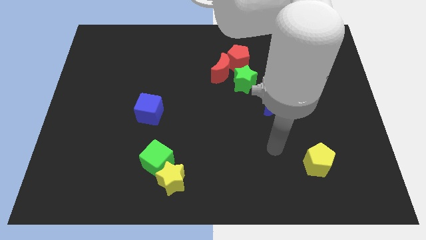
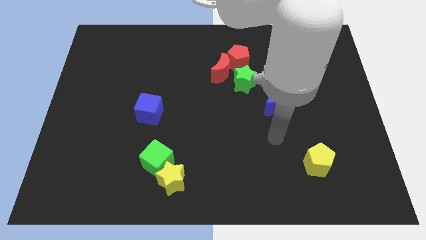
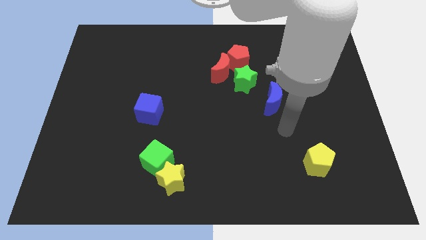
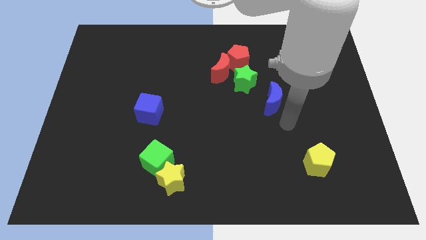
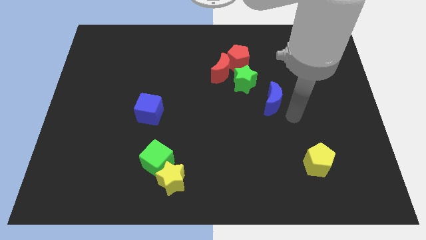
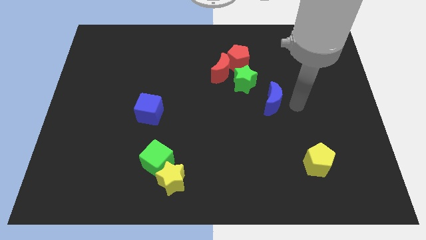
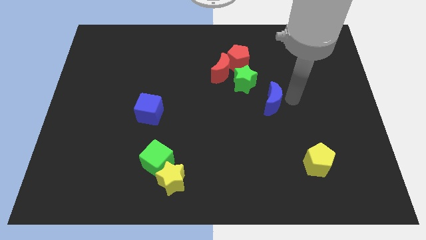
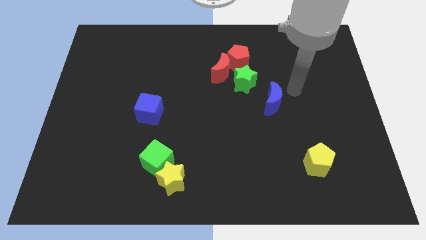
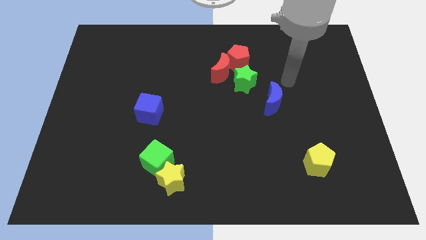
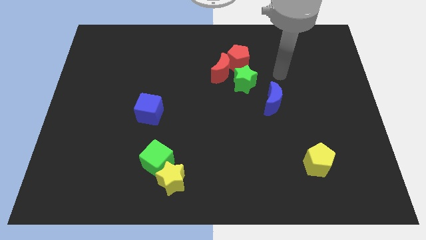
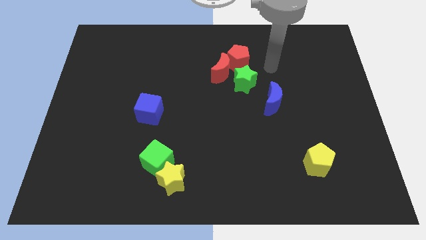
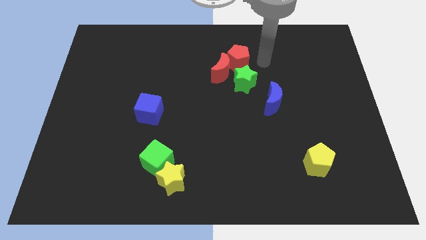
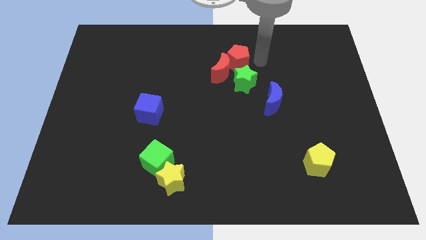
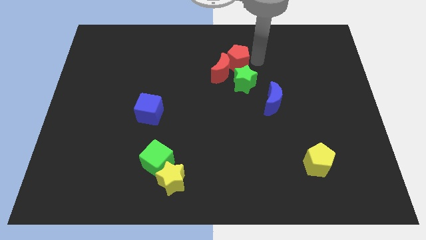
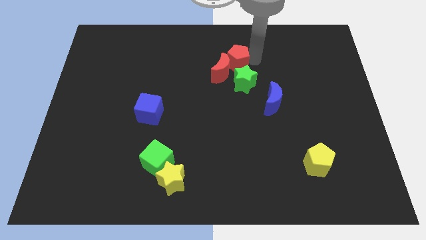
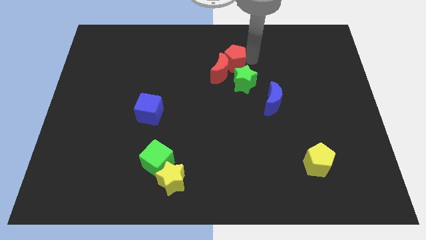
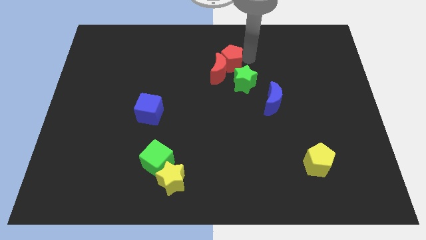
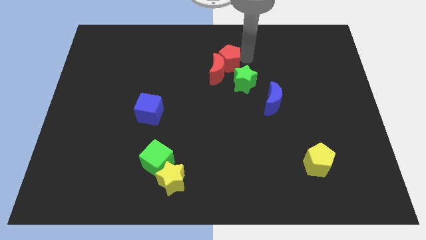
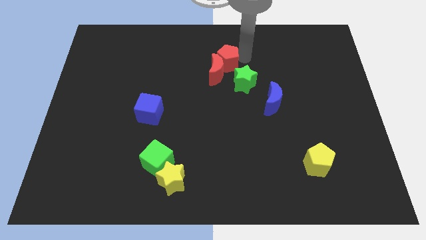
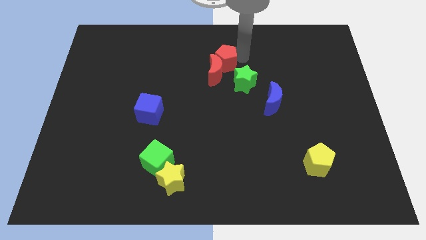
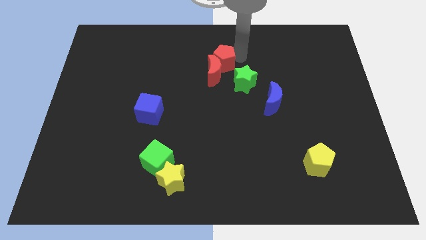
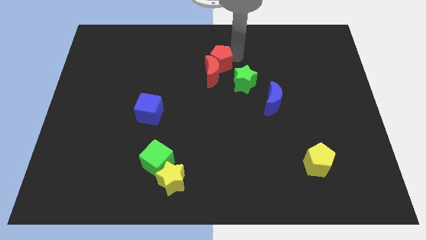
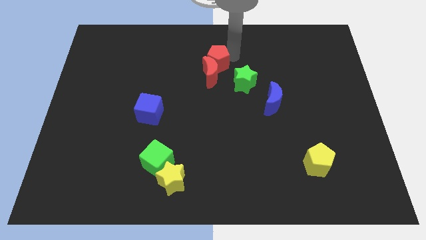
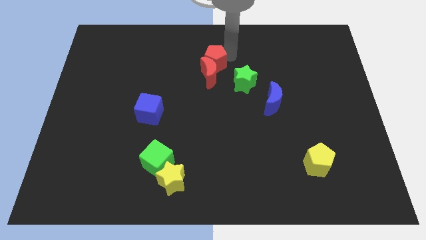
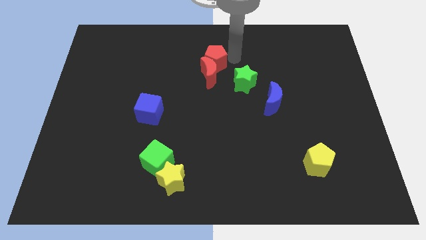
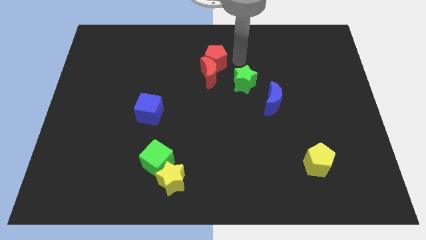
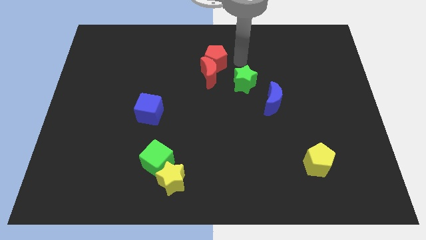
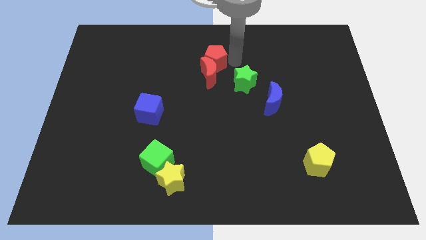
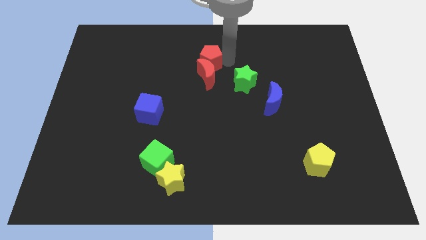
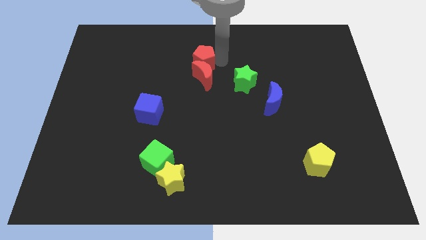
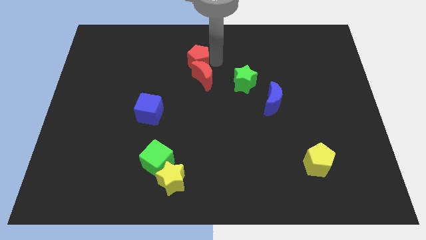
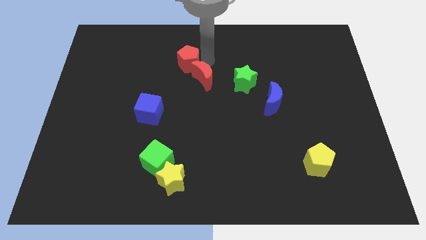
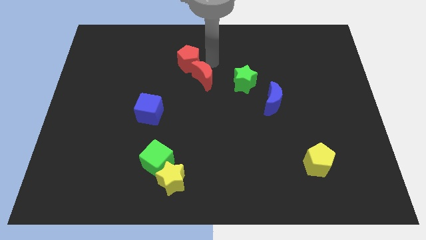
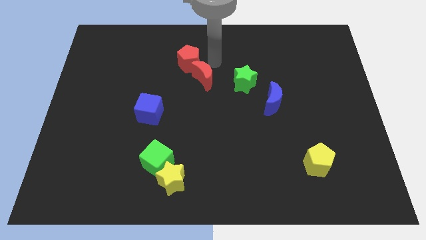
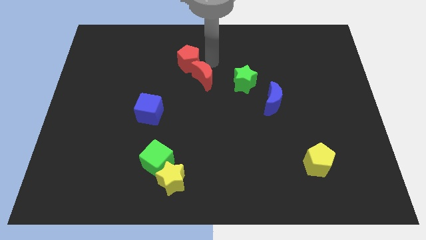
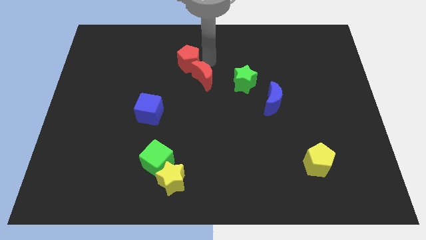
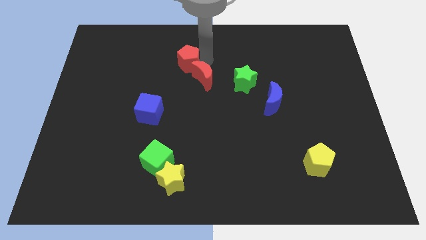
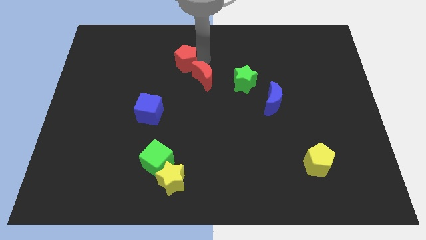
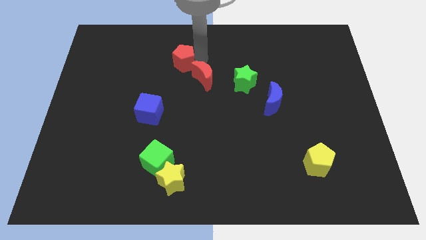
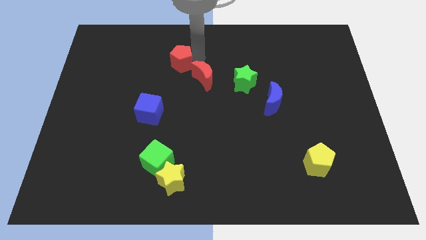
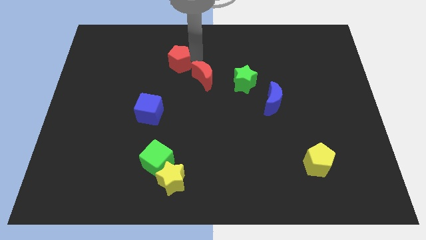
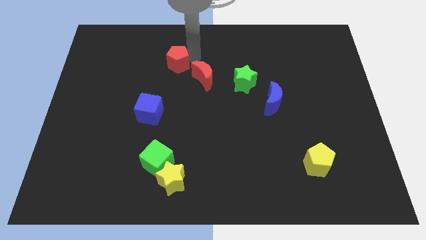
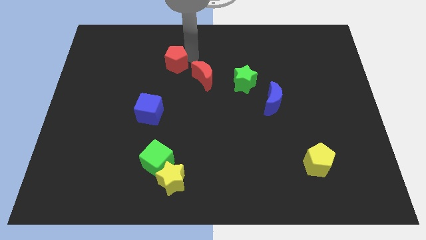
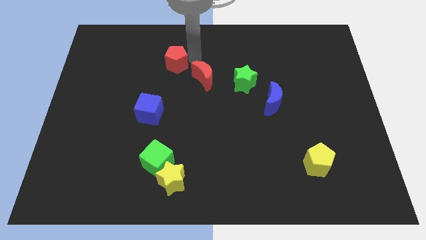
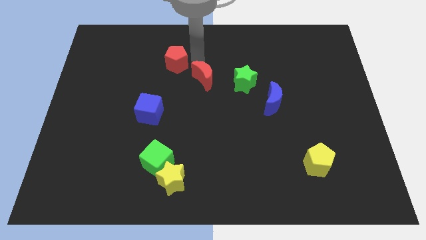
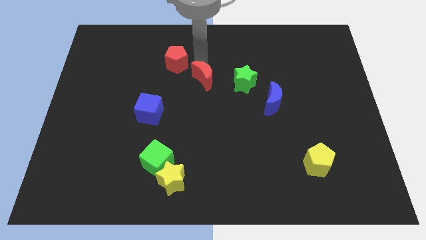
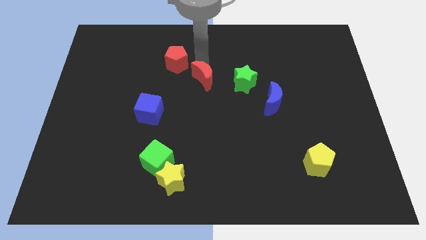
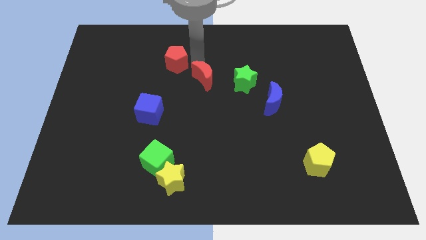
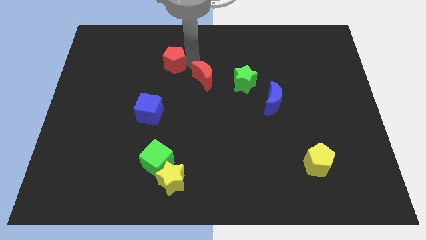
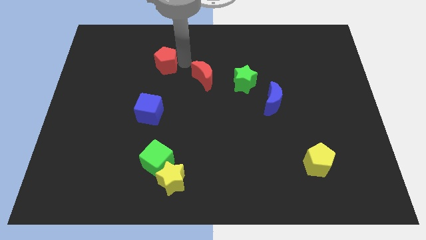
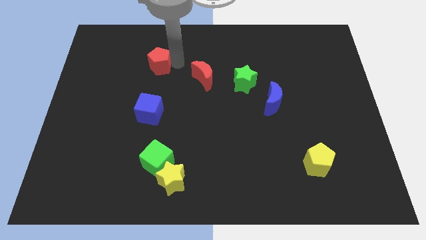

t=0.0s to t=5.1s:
push the red pentagon left

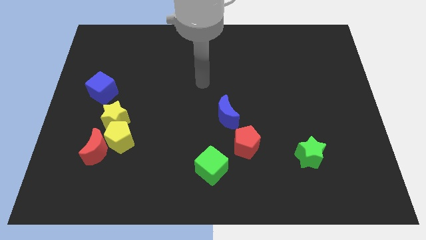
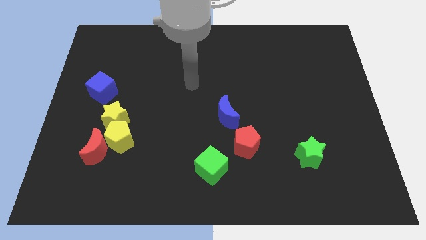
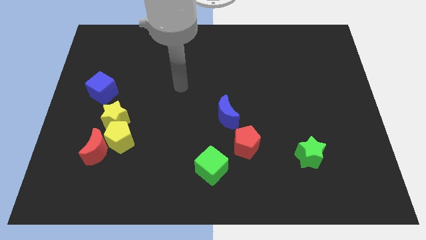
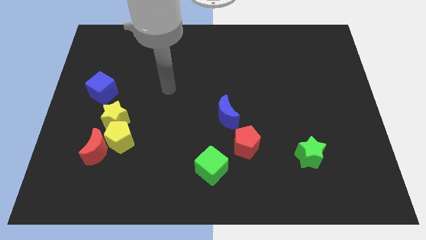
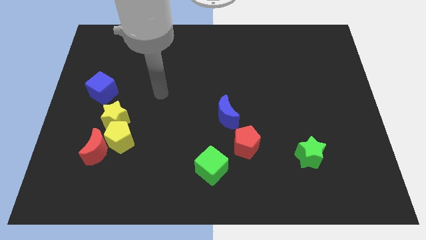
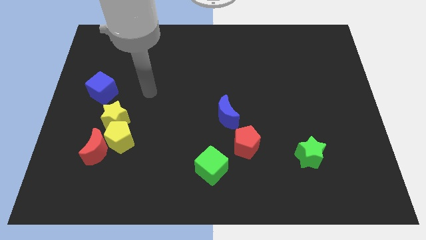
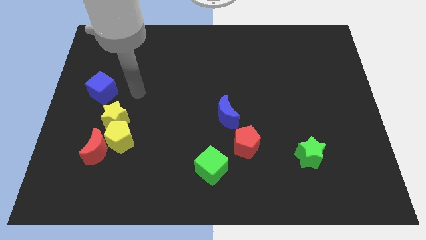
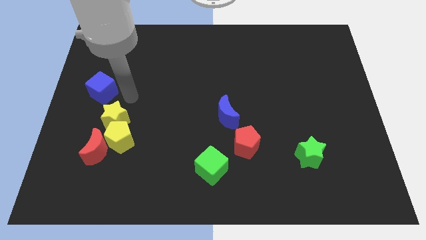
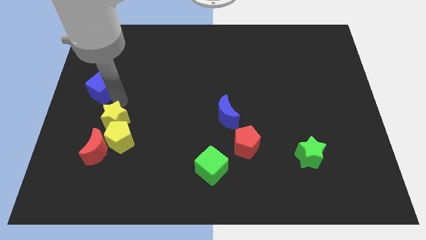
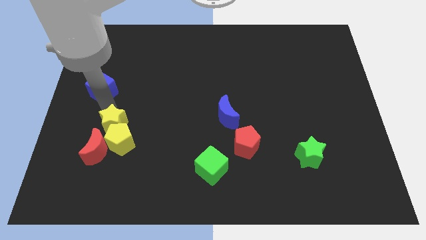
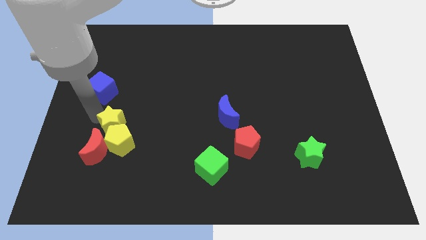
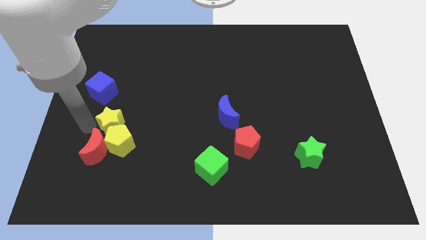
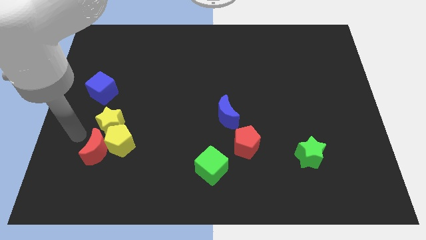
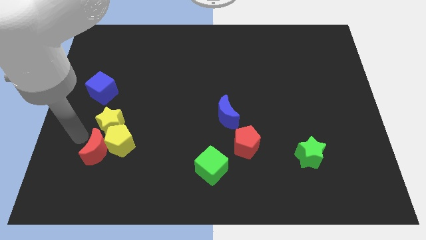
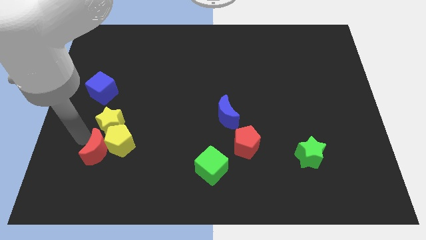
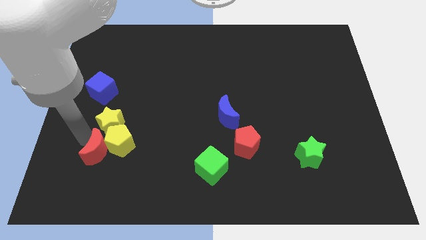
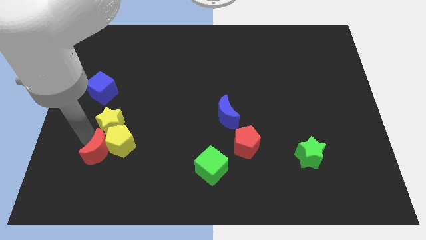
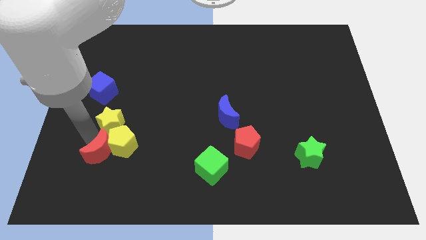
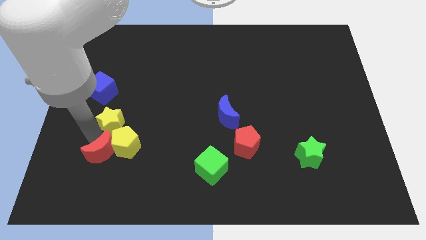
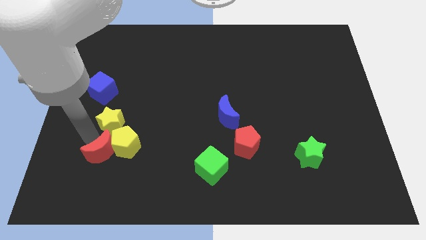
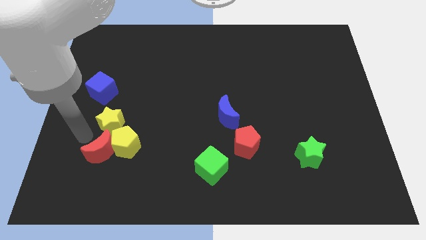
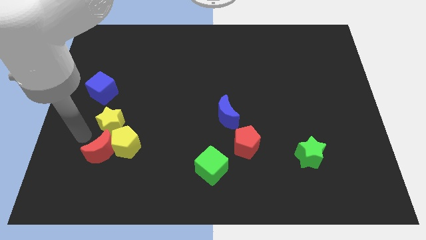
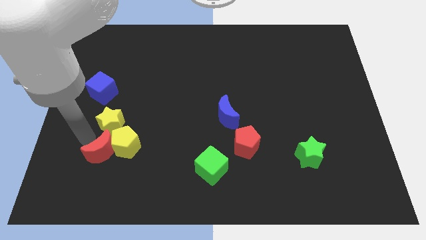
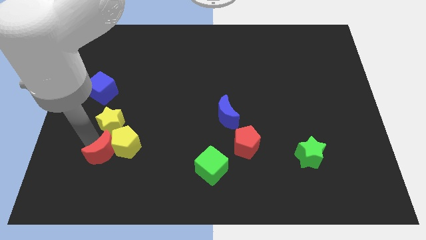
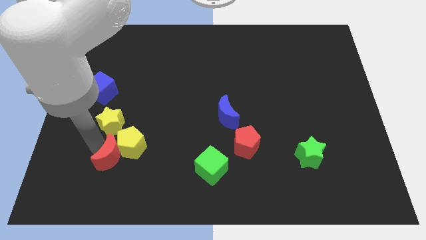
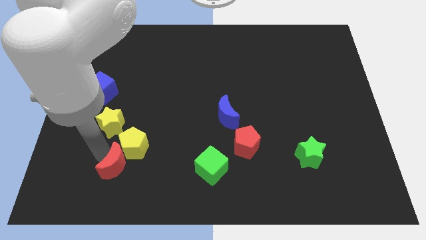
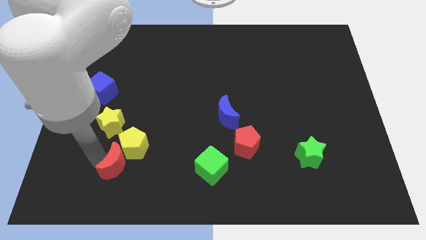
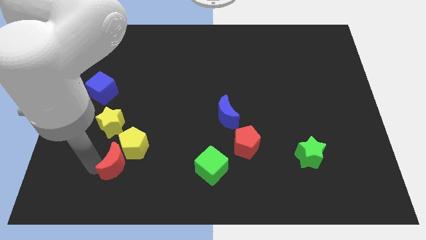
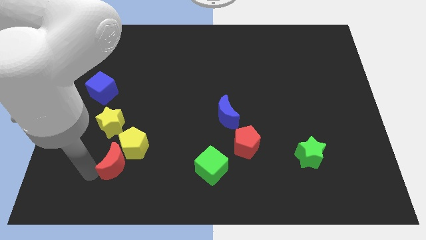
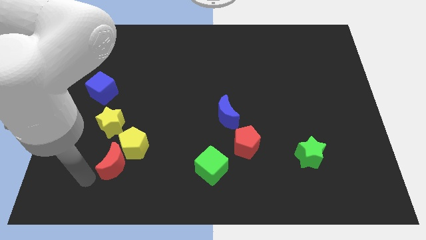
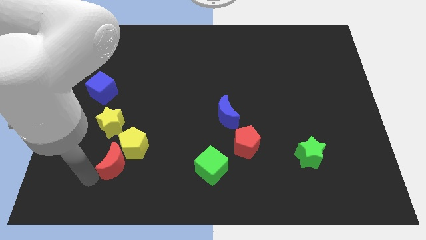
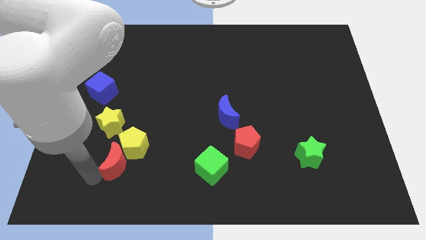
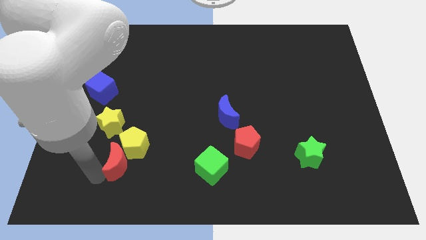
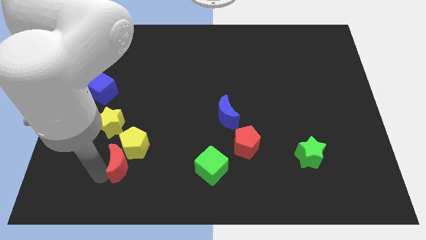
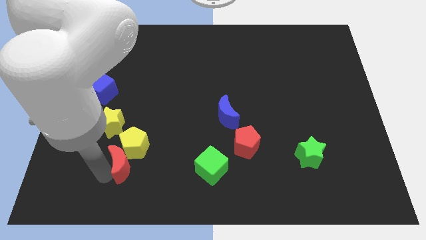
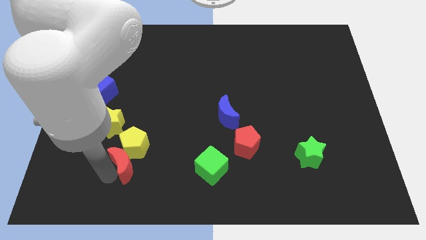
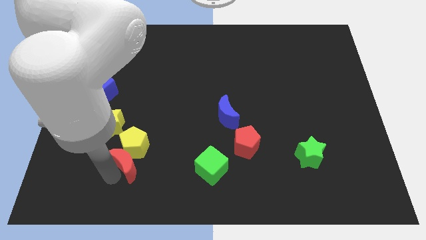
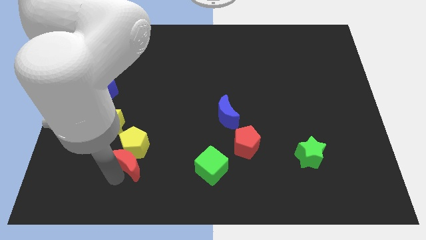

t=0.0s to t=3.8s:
push the red moon a little to the right
